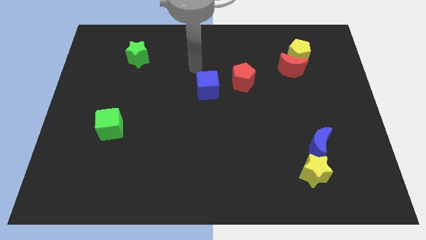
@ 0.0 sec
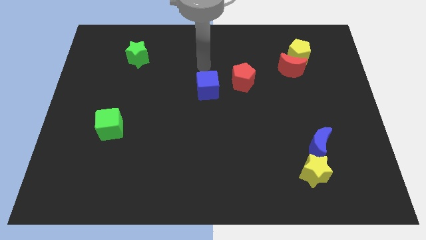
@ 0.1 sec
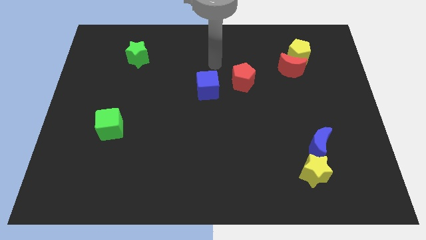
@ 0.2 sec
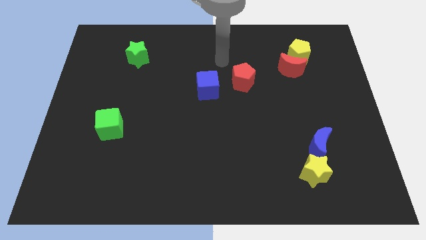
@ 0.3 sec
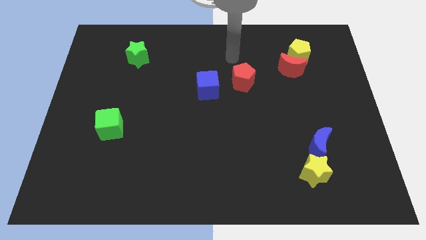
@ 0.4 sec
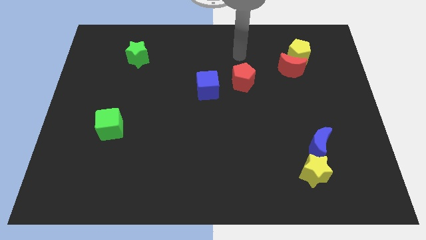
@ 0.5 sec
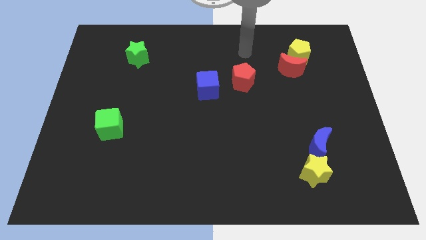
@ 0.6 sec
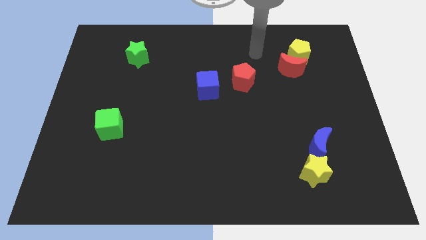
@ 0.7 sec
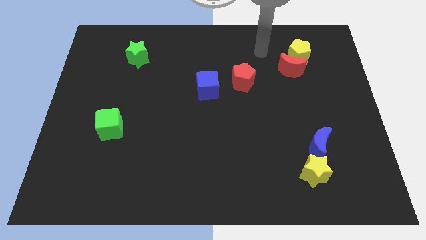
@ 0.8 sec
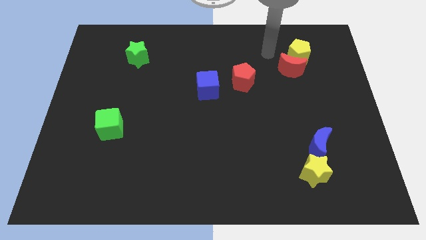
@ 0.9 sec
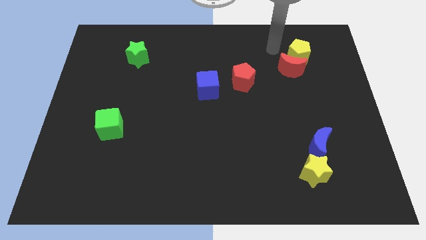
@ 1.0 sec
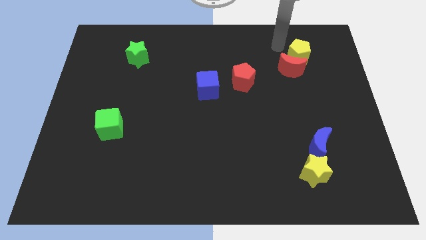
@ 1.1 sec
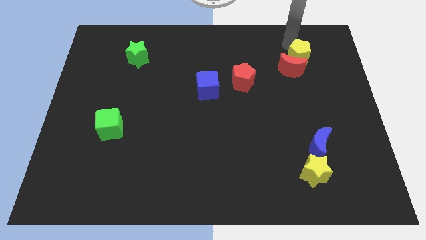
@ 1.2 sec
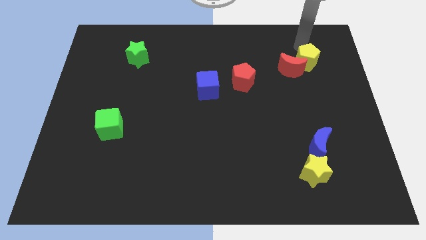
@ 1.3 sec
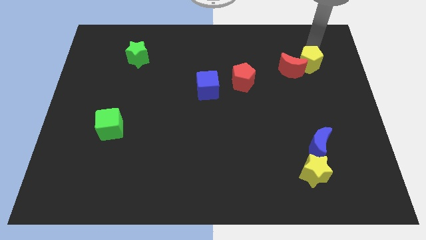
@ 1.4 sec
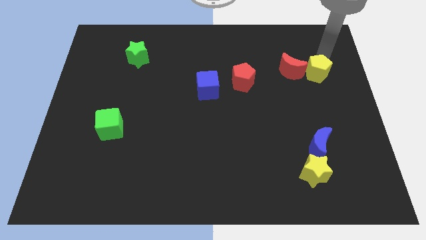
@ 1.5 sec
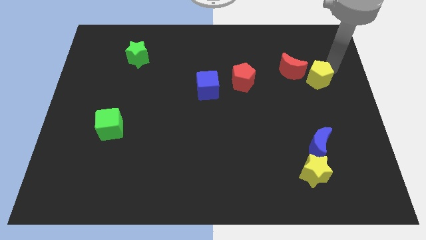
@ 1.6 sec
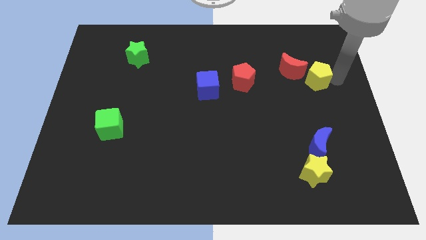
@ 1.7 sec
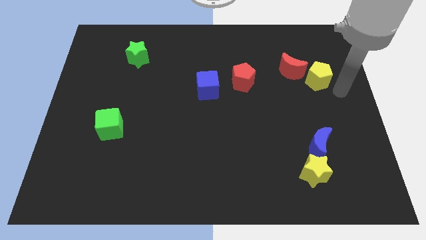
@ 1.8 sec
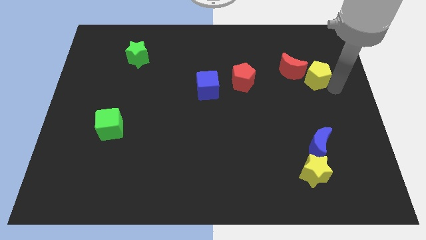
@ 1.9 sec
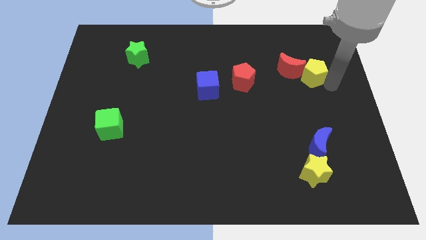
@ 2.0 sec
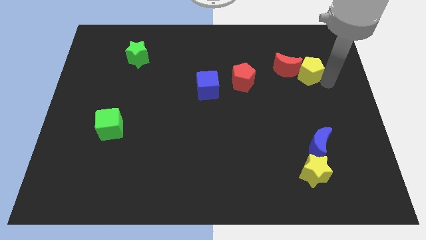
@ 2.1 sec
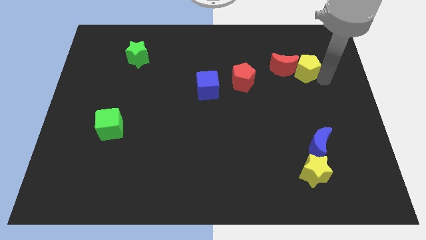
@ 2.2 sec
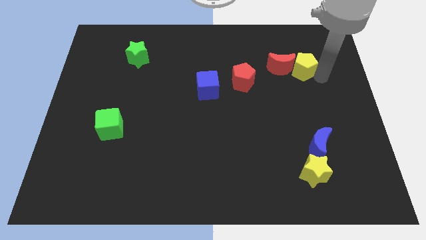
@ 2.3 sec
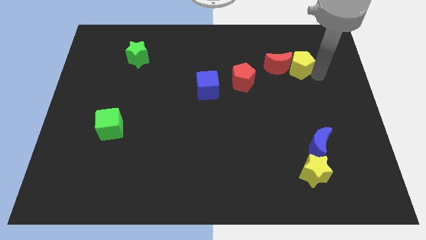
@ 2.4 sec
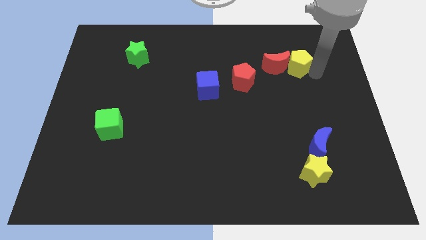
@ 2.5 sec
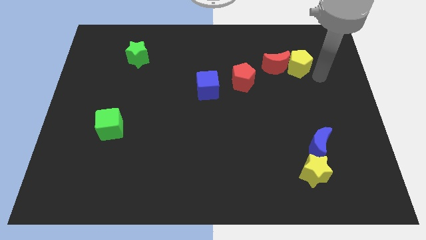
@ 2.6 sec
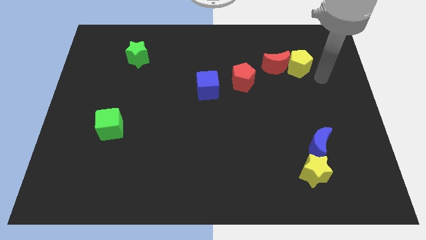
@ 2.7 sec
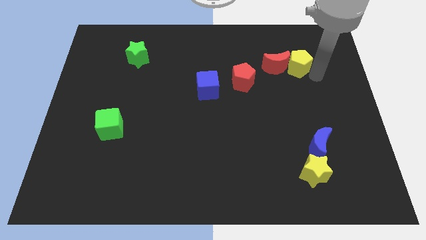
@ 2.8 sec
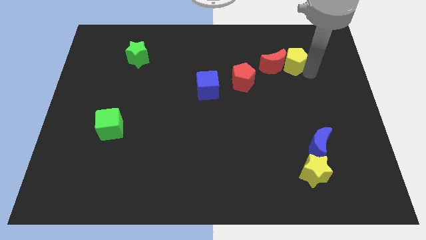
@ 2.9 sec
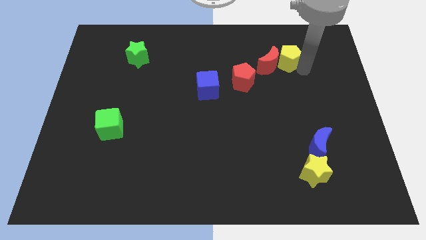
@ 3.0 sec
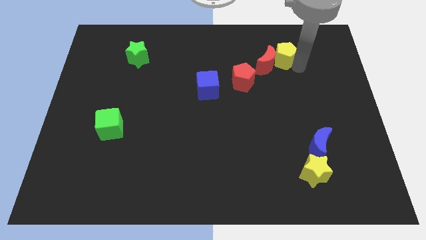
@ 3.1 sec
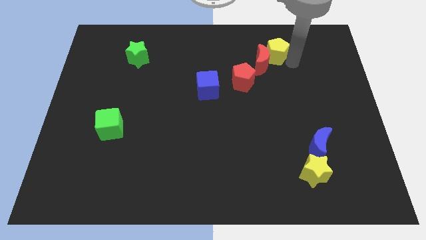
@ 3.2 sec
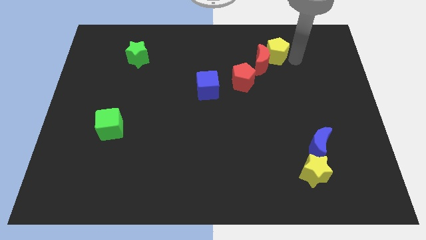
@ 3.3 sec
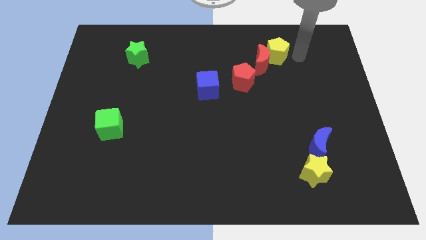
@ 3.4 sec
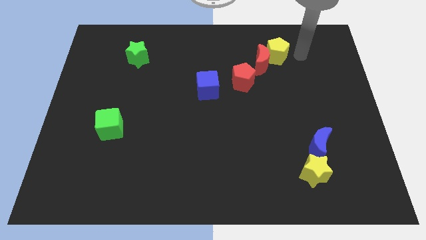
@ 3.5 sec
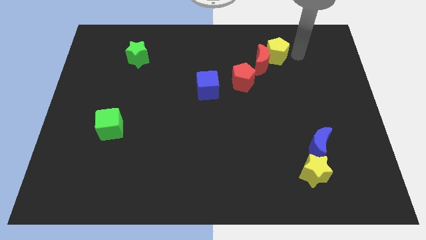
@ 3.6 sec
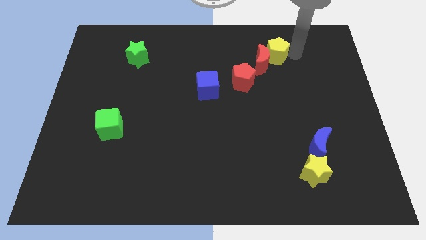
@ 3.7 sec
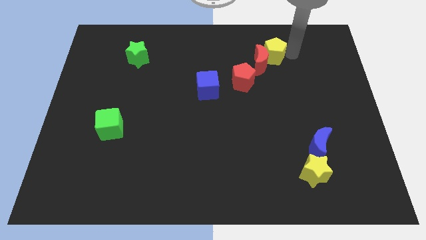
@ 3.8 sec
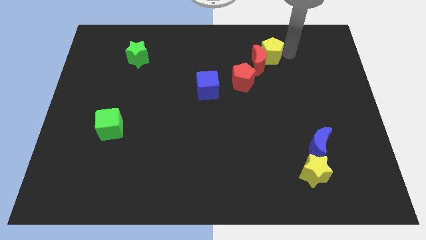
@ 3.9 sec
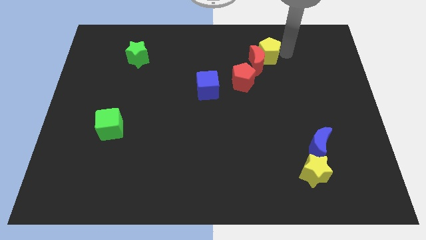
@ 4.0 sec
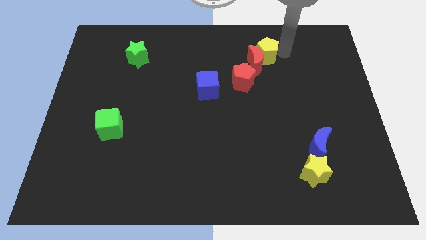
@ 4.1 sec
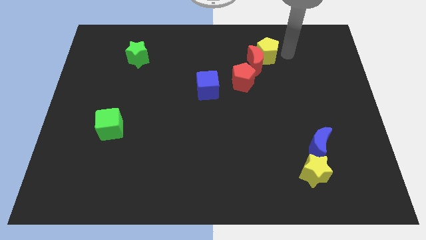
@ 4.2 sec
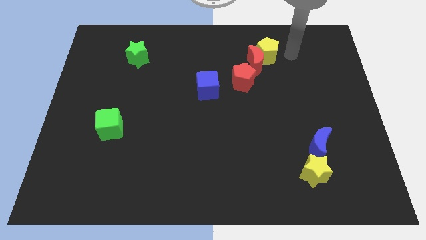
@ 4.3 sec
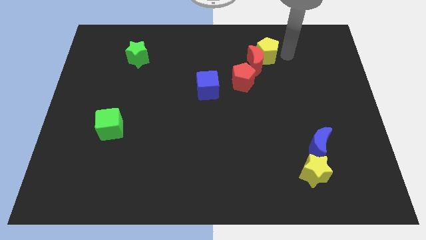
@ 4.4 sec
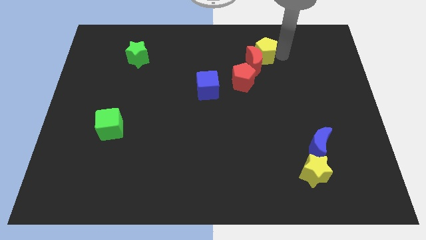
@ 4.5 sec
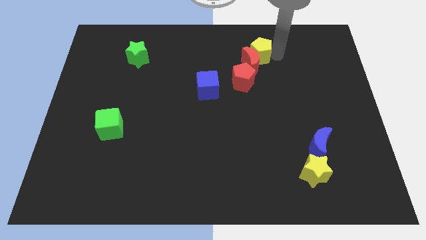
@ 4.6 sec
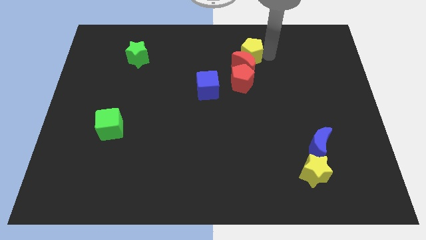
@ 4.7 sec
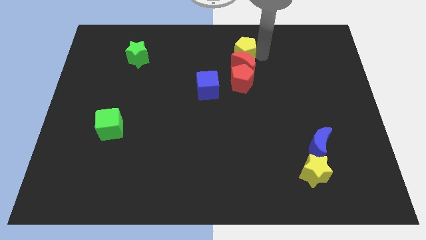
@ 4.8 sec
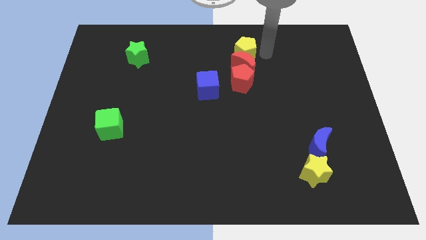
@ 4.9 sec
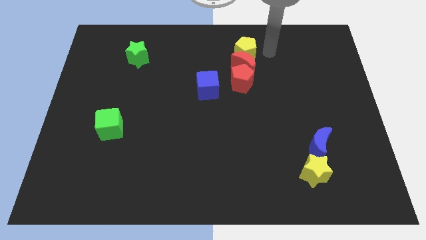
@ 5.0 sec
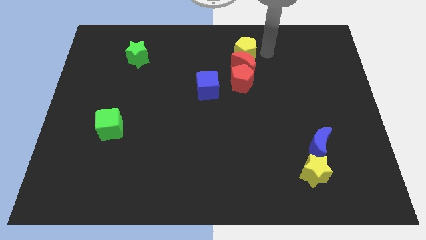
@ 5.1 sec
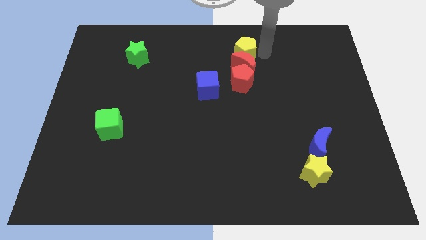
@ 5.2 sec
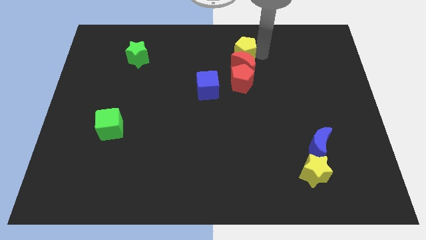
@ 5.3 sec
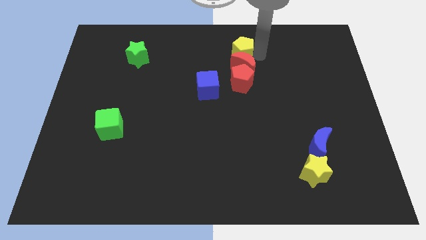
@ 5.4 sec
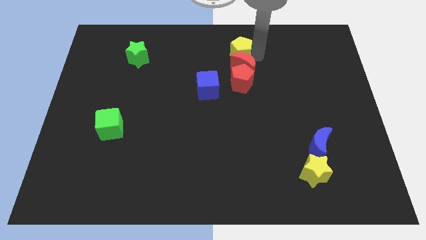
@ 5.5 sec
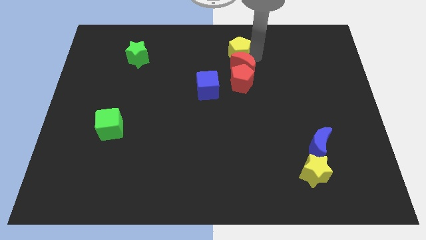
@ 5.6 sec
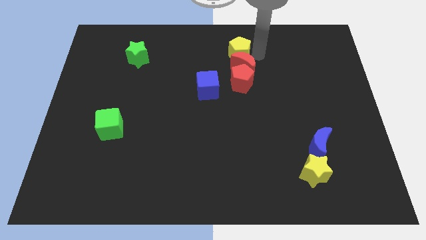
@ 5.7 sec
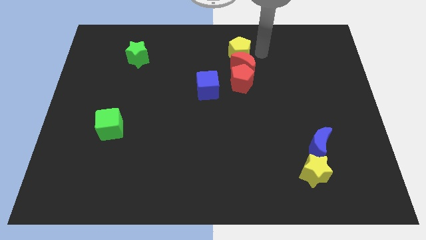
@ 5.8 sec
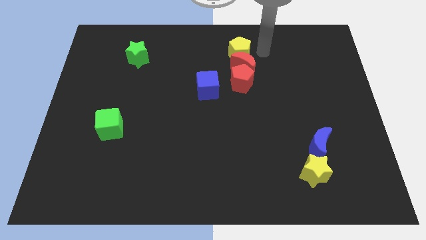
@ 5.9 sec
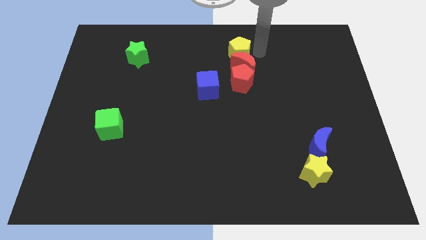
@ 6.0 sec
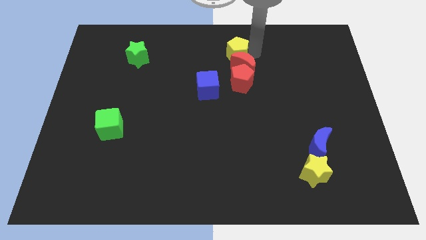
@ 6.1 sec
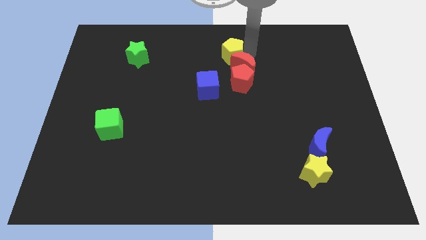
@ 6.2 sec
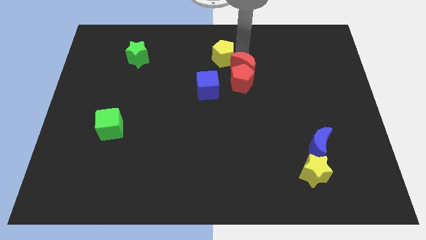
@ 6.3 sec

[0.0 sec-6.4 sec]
slide the yellow pentagon to the left

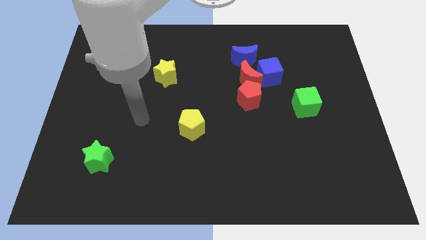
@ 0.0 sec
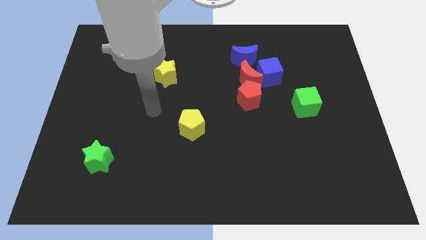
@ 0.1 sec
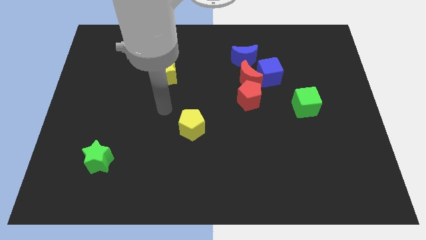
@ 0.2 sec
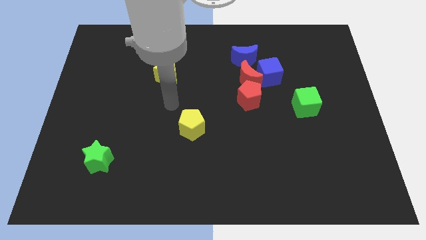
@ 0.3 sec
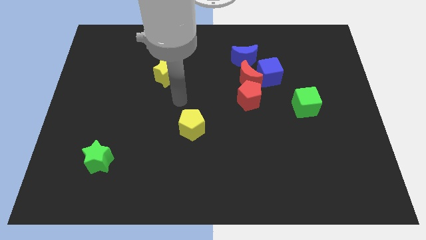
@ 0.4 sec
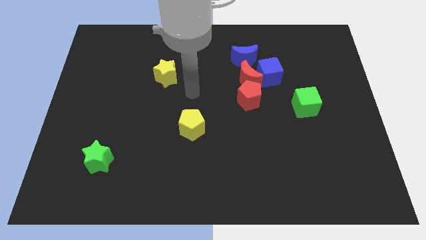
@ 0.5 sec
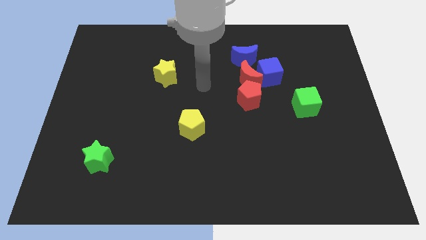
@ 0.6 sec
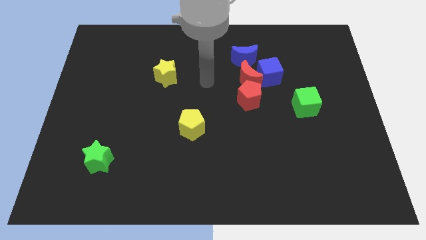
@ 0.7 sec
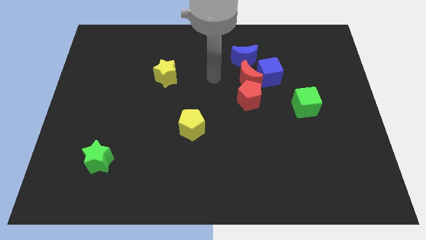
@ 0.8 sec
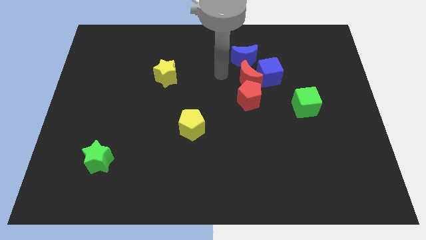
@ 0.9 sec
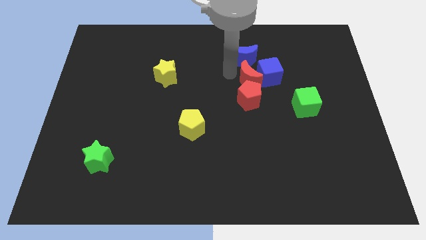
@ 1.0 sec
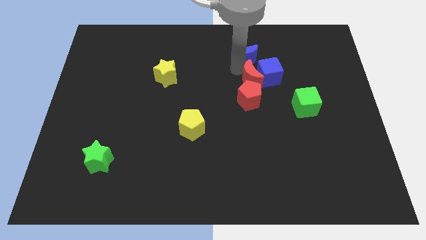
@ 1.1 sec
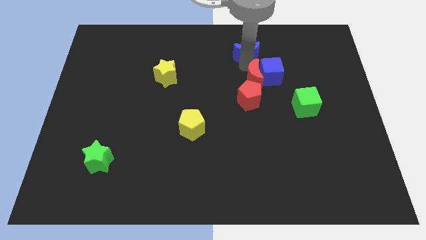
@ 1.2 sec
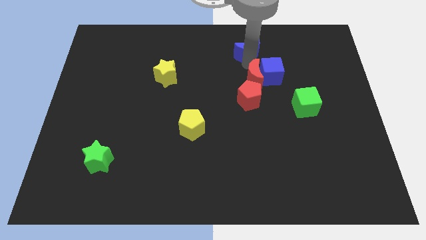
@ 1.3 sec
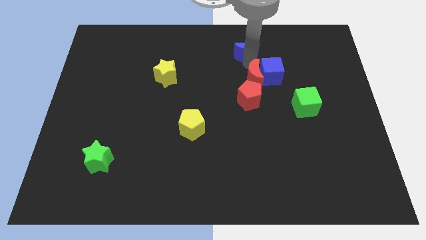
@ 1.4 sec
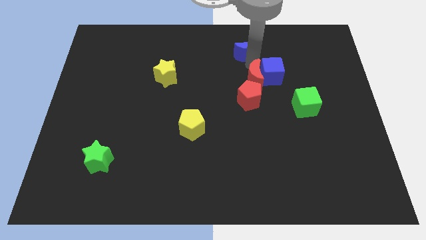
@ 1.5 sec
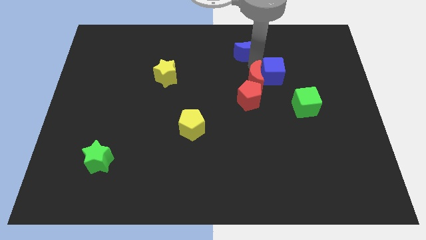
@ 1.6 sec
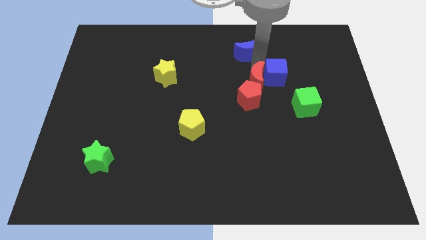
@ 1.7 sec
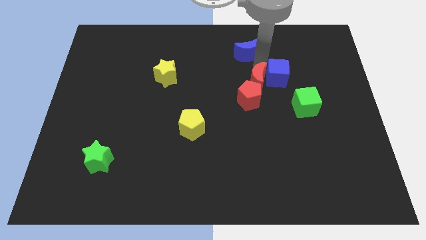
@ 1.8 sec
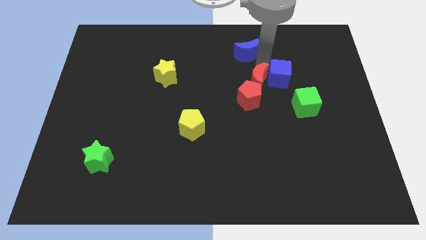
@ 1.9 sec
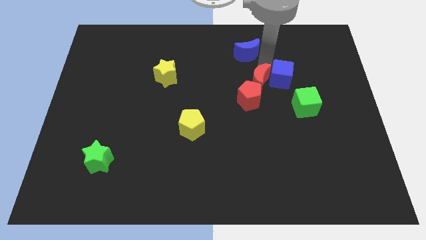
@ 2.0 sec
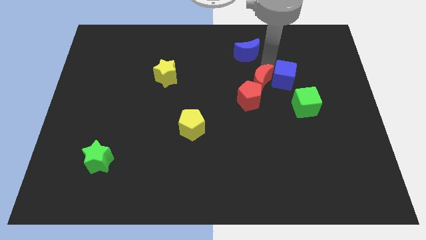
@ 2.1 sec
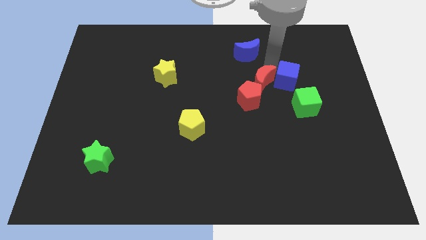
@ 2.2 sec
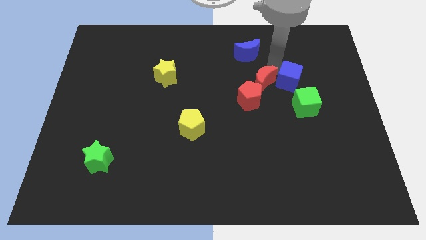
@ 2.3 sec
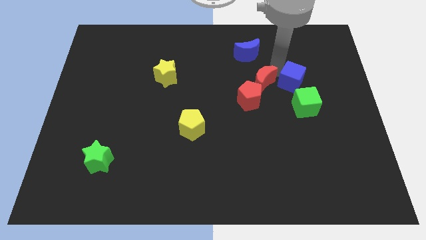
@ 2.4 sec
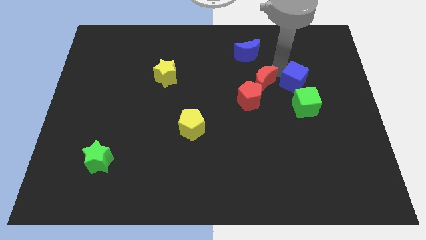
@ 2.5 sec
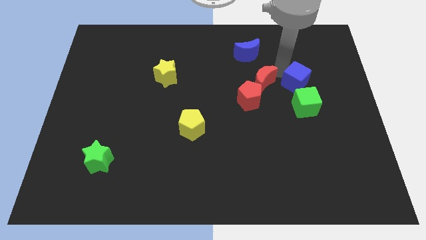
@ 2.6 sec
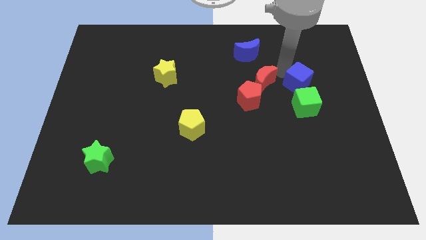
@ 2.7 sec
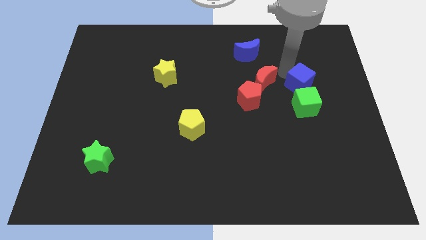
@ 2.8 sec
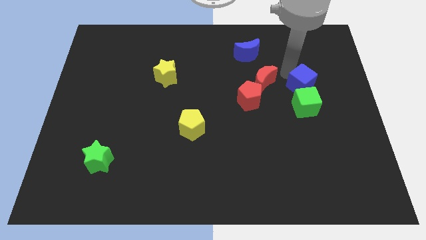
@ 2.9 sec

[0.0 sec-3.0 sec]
push the blue cube diagonally down and to the right slightly
